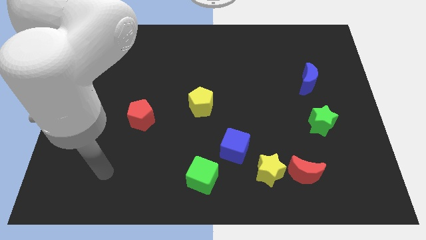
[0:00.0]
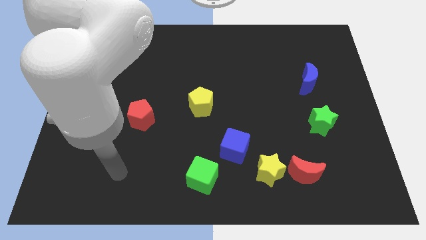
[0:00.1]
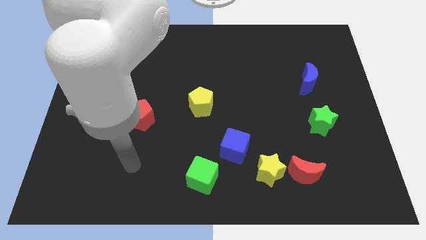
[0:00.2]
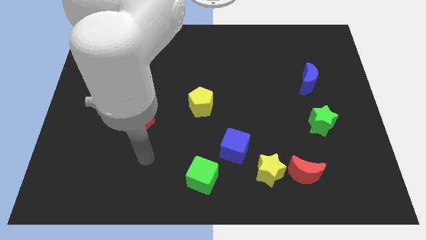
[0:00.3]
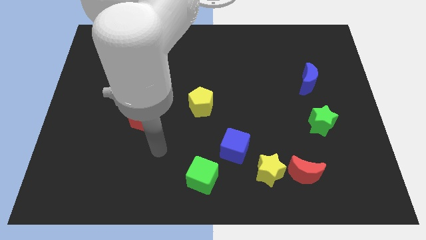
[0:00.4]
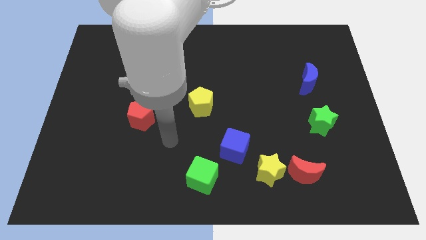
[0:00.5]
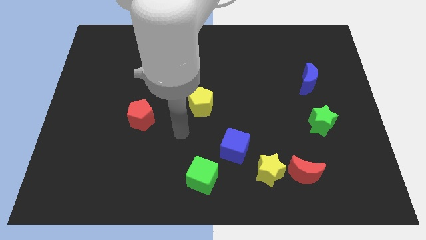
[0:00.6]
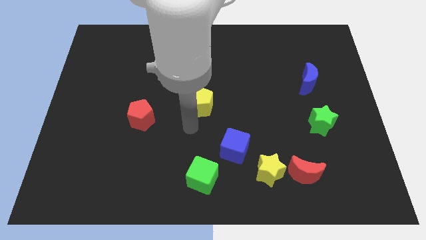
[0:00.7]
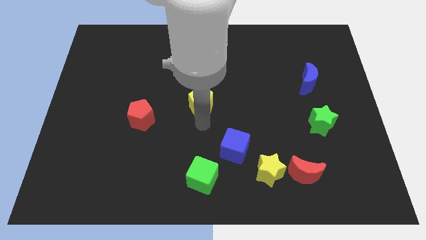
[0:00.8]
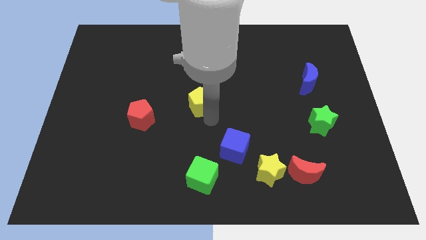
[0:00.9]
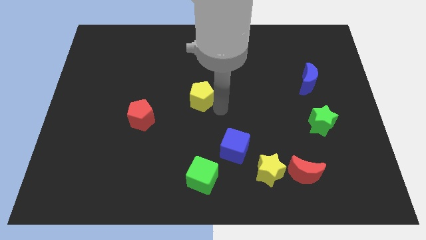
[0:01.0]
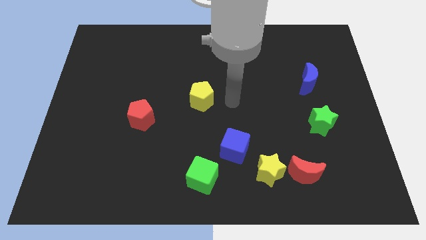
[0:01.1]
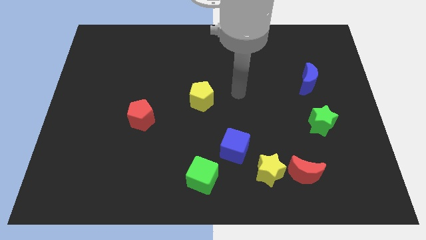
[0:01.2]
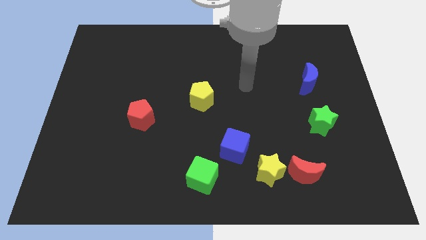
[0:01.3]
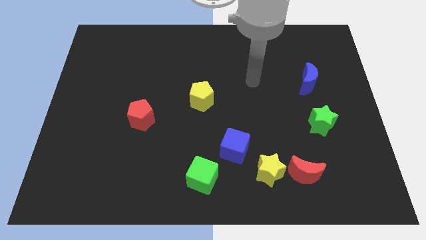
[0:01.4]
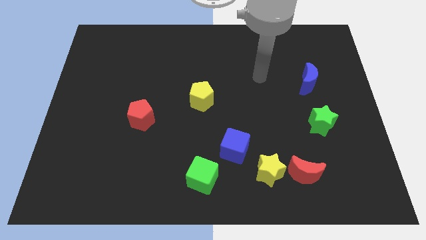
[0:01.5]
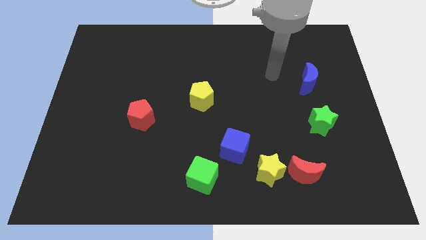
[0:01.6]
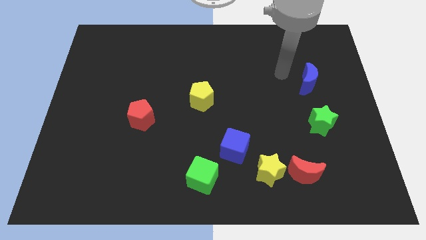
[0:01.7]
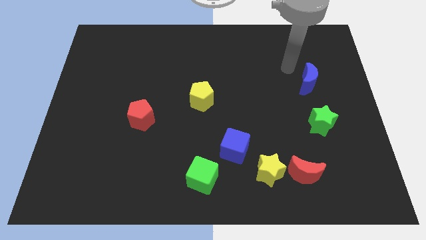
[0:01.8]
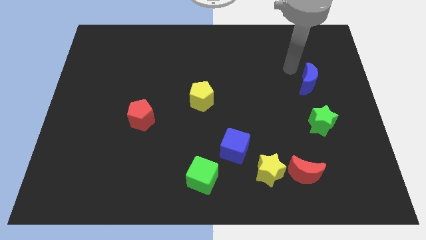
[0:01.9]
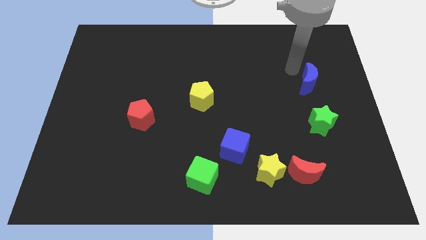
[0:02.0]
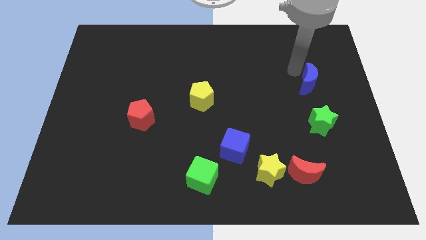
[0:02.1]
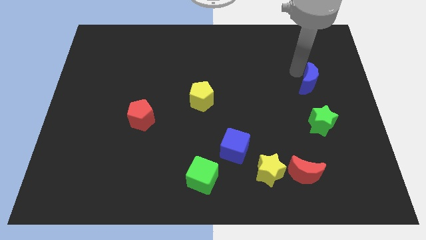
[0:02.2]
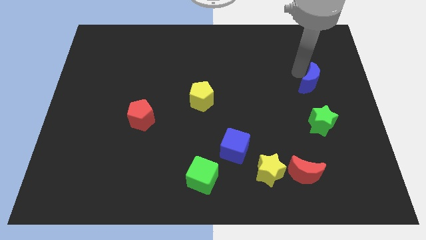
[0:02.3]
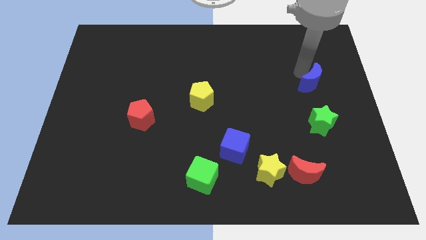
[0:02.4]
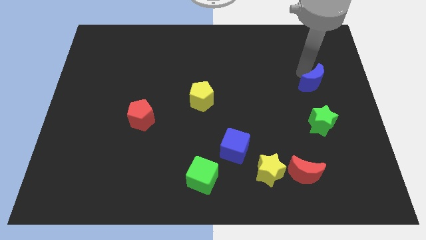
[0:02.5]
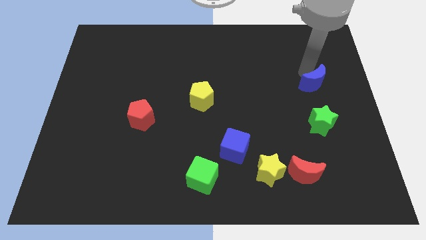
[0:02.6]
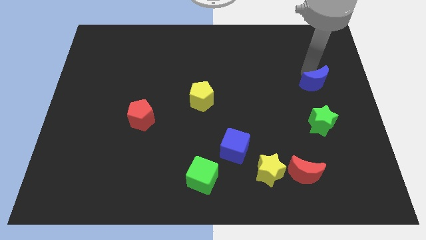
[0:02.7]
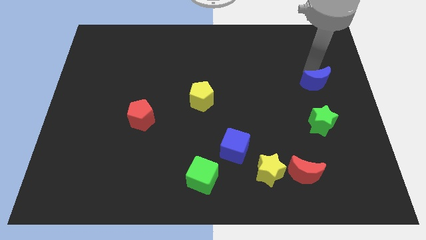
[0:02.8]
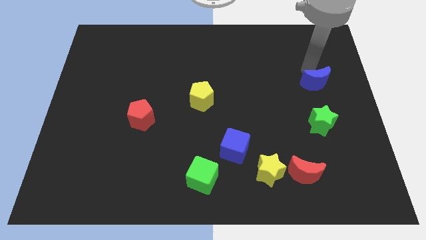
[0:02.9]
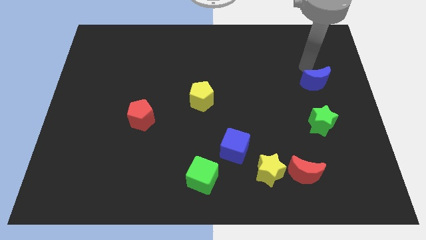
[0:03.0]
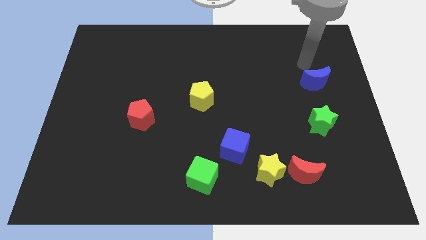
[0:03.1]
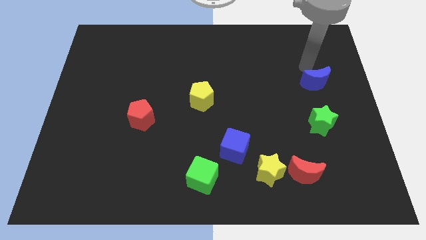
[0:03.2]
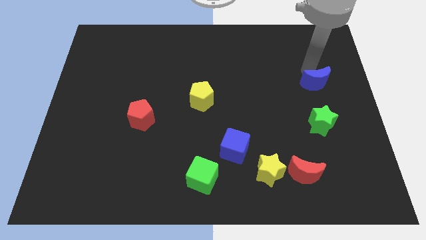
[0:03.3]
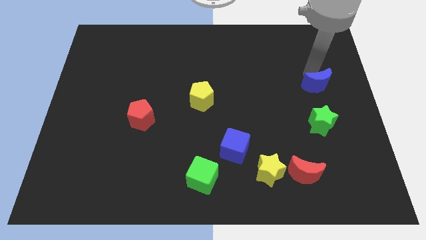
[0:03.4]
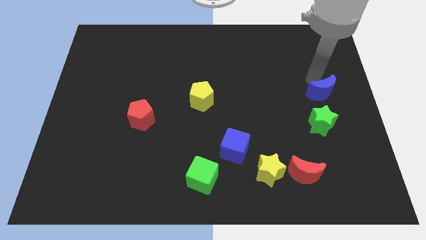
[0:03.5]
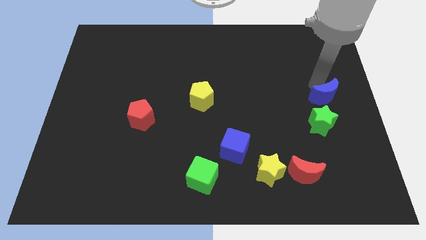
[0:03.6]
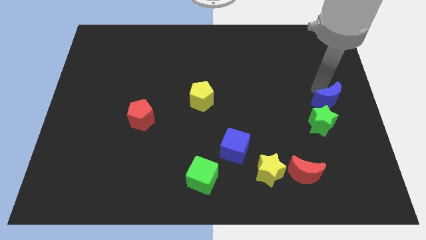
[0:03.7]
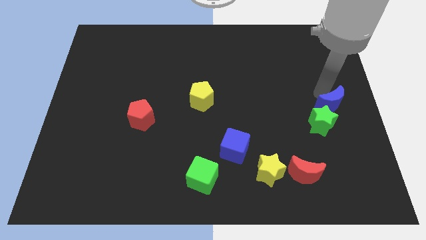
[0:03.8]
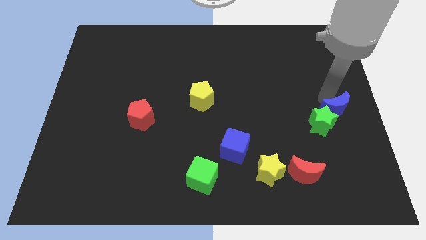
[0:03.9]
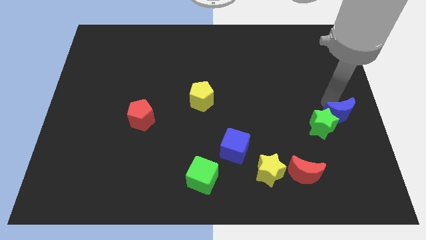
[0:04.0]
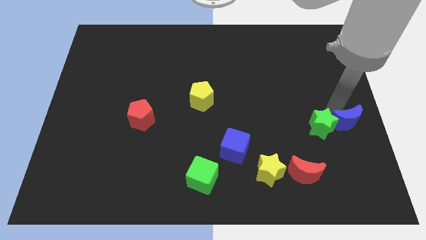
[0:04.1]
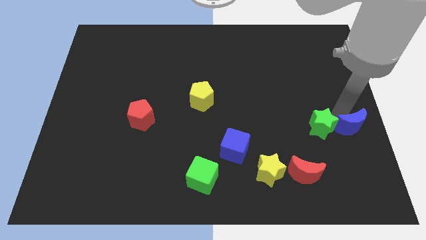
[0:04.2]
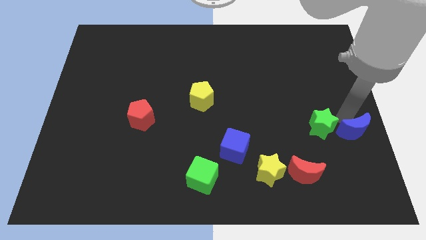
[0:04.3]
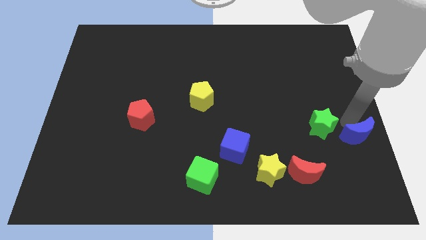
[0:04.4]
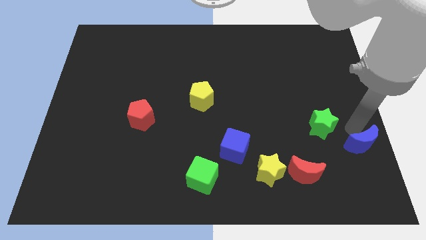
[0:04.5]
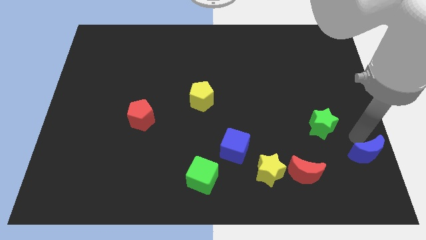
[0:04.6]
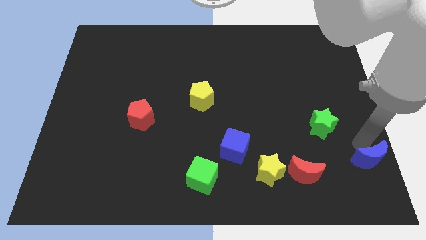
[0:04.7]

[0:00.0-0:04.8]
move the blue moon to the lower right corner

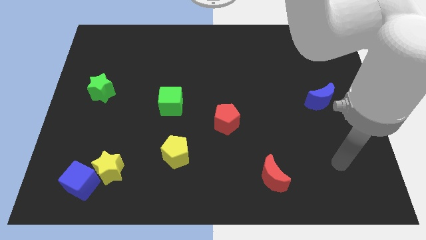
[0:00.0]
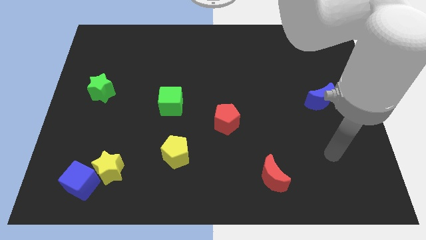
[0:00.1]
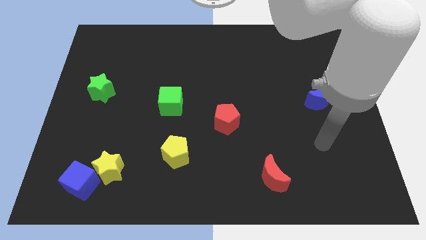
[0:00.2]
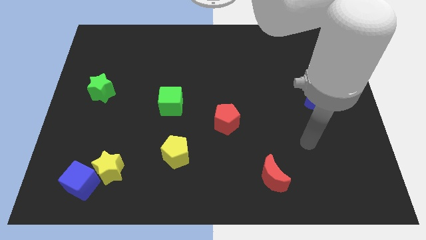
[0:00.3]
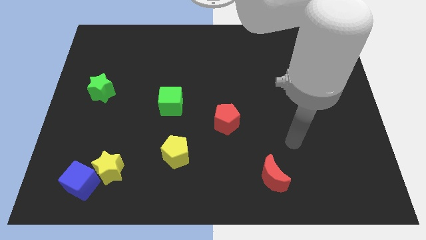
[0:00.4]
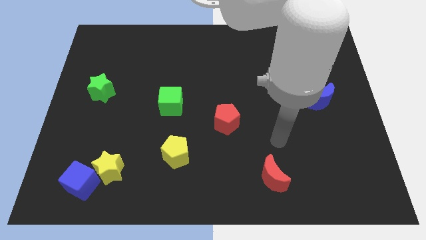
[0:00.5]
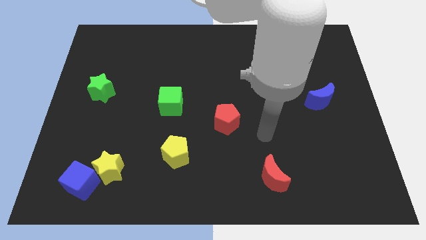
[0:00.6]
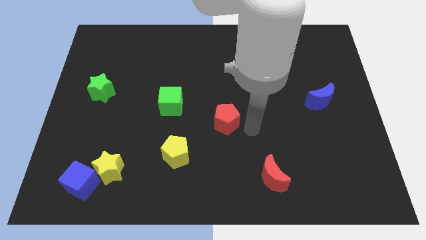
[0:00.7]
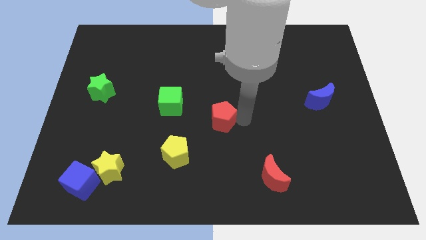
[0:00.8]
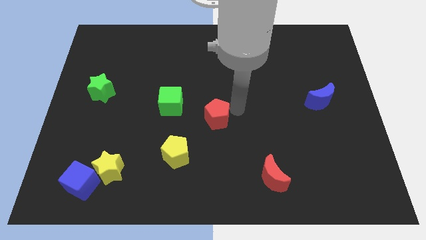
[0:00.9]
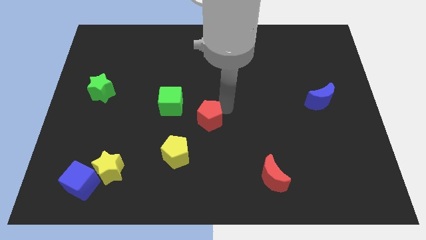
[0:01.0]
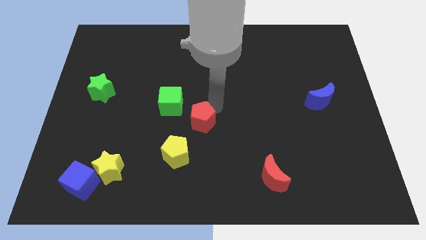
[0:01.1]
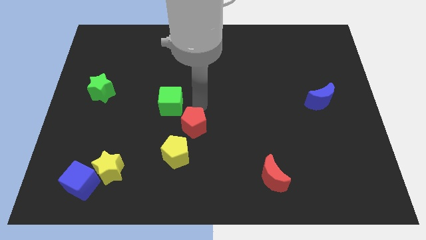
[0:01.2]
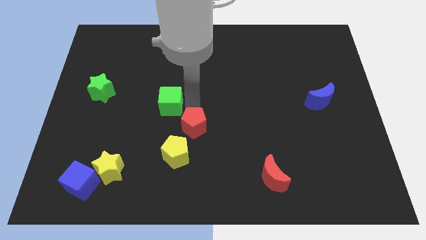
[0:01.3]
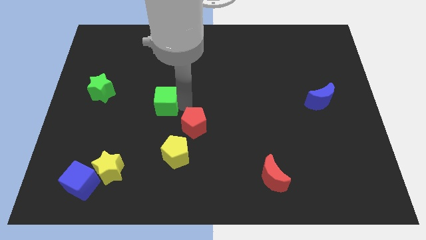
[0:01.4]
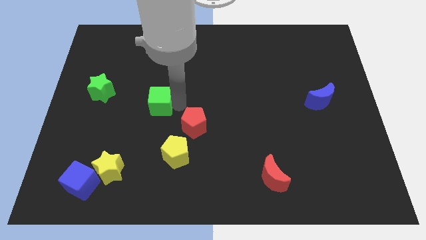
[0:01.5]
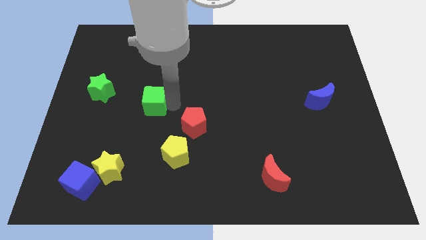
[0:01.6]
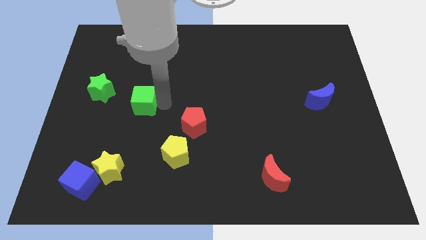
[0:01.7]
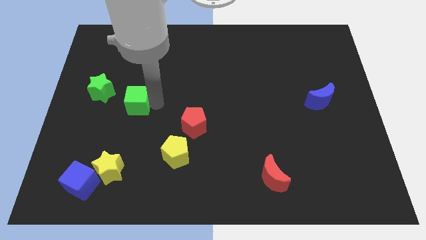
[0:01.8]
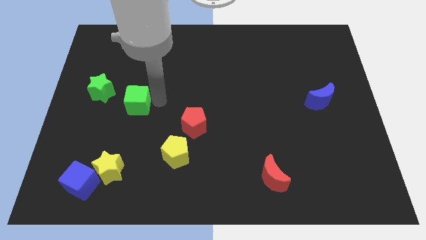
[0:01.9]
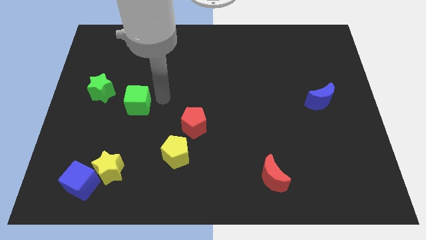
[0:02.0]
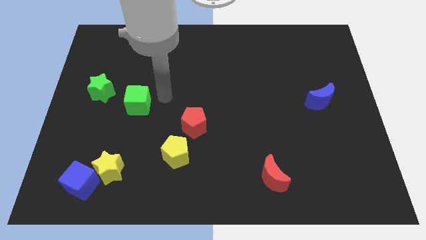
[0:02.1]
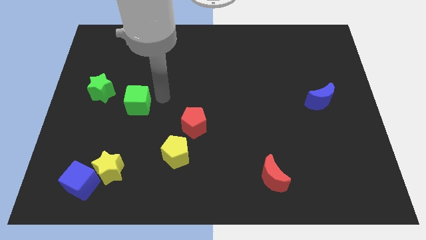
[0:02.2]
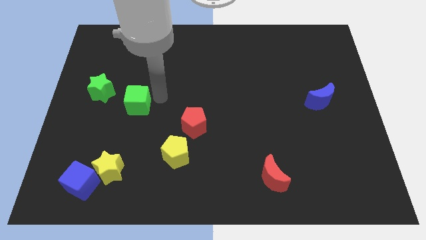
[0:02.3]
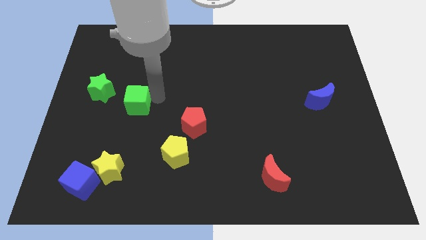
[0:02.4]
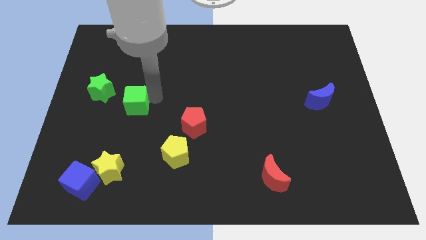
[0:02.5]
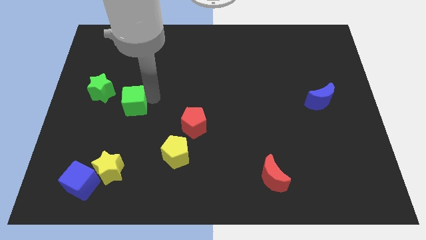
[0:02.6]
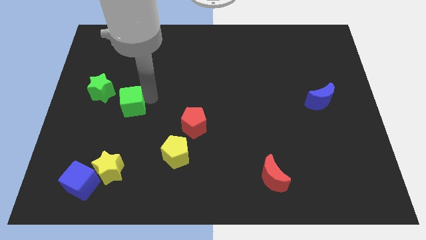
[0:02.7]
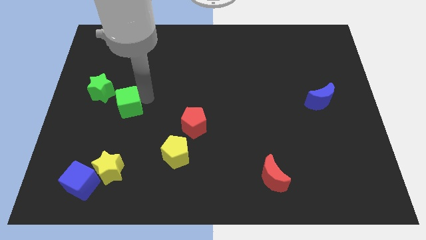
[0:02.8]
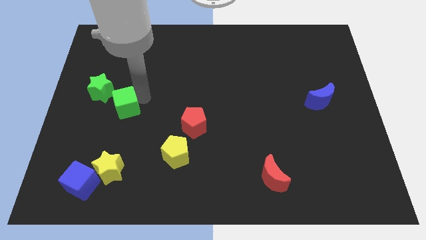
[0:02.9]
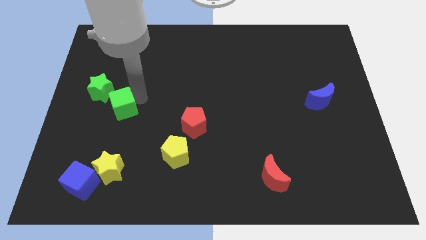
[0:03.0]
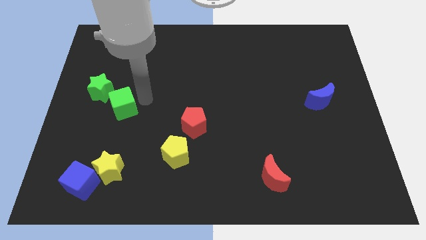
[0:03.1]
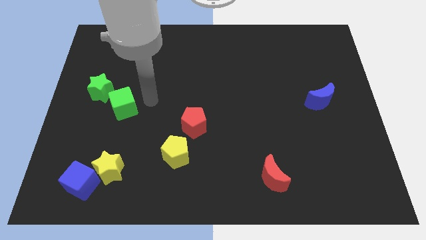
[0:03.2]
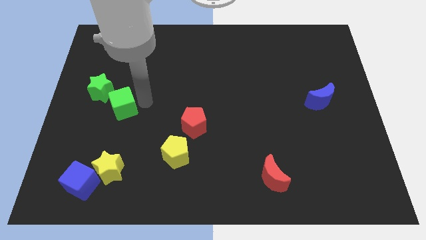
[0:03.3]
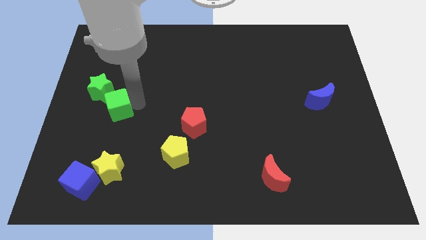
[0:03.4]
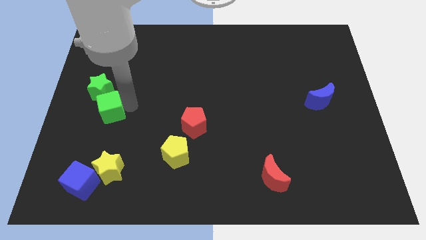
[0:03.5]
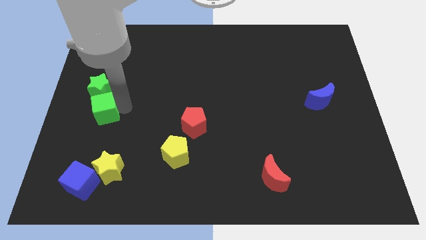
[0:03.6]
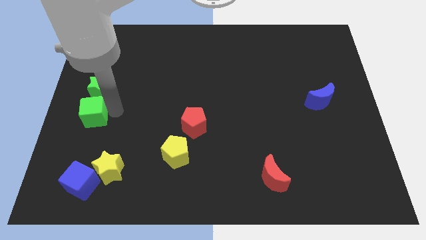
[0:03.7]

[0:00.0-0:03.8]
slide the green cube to the left side of the board
